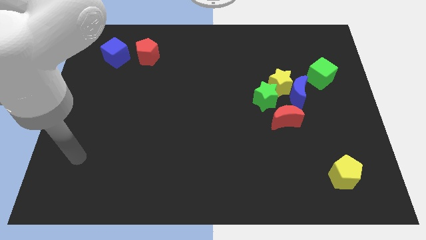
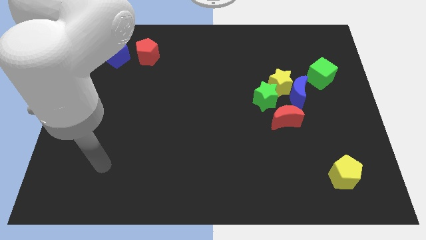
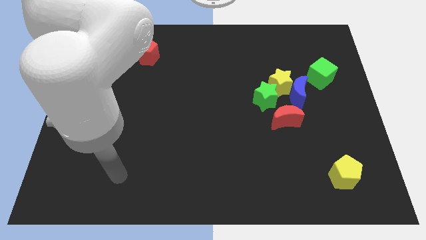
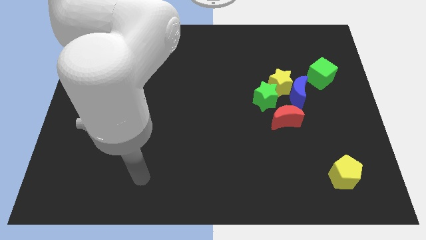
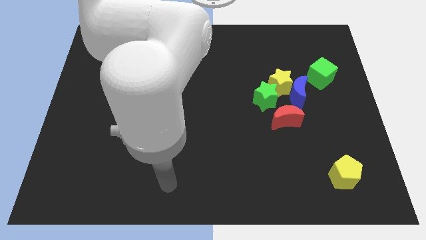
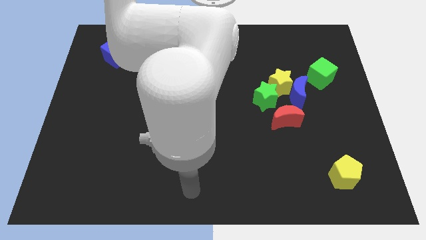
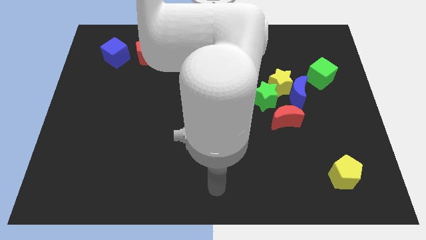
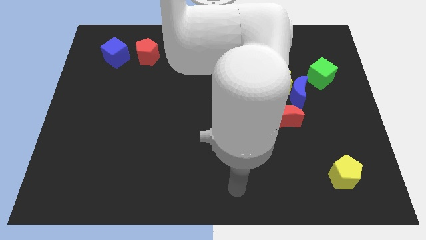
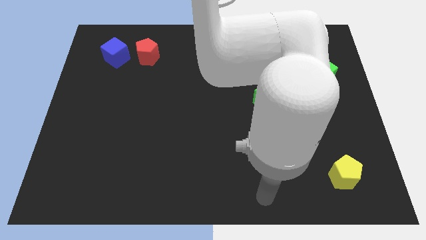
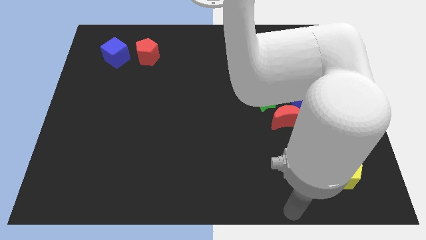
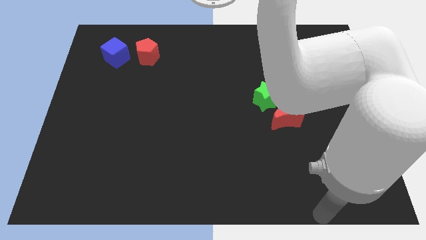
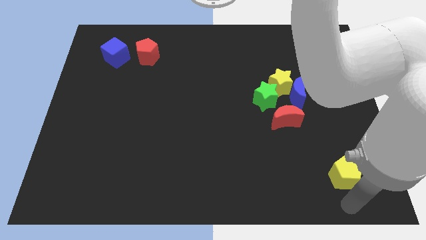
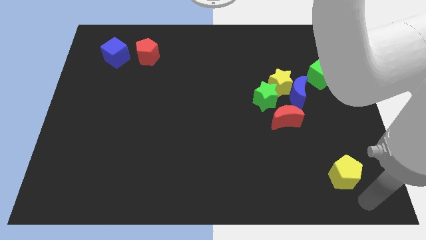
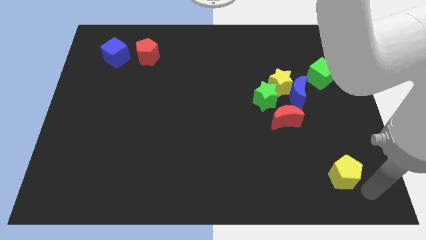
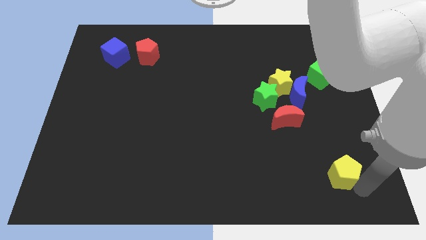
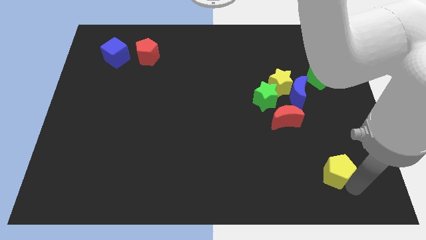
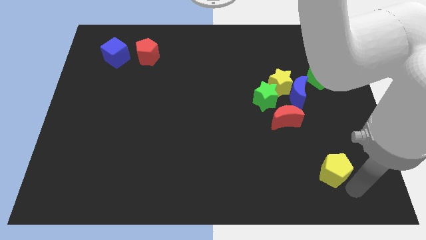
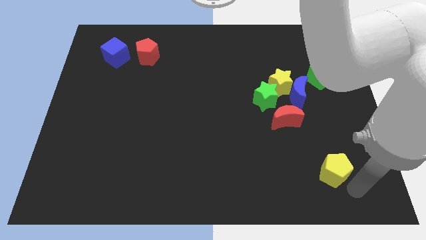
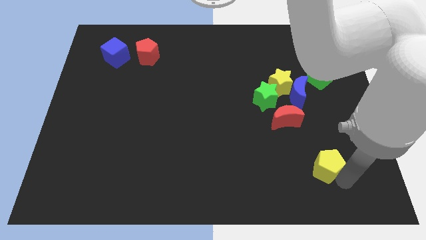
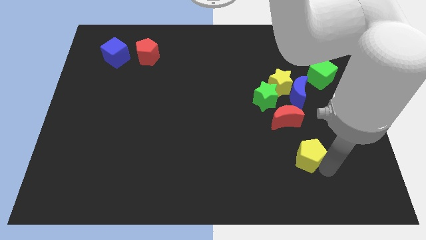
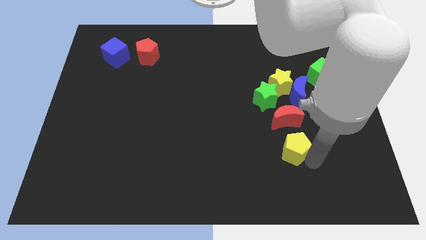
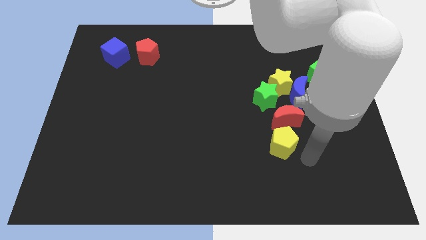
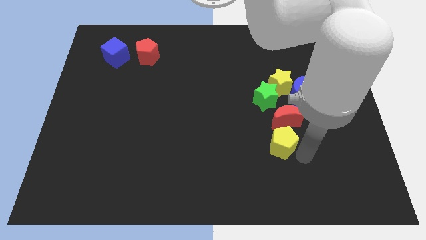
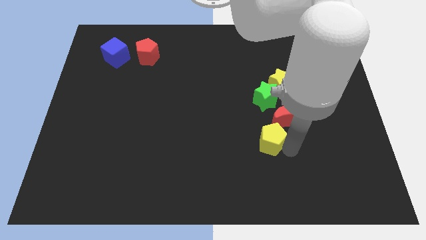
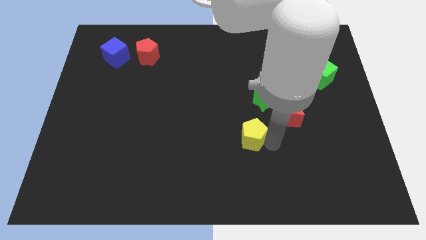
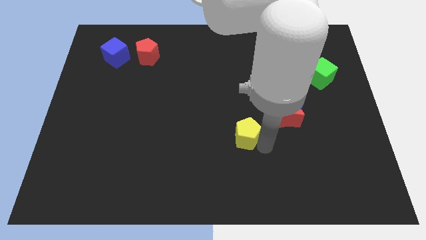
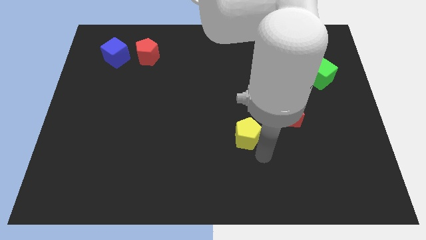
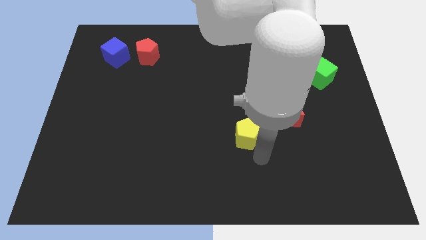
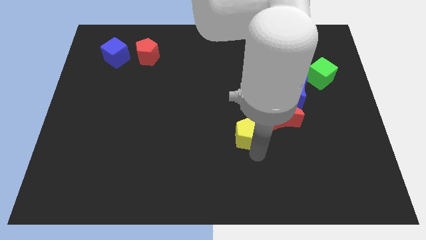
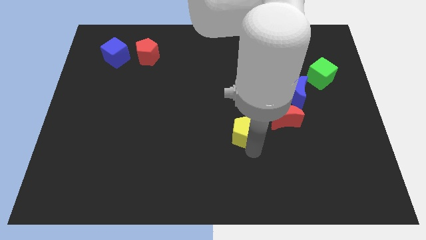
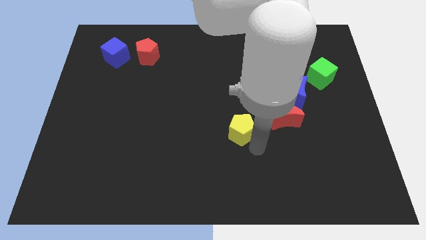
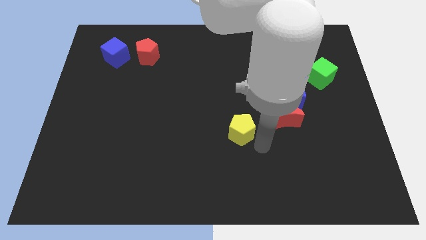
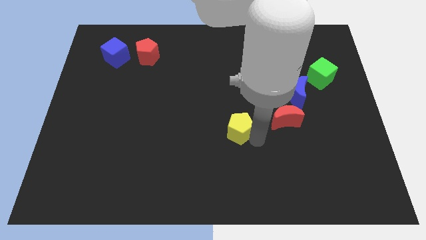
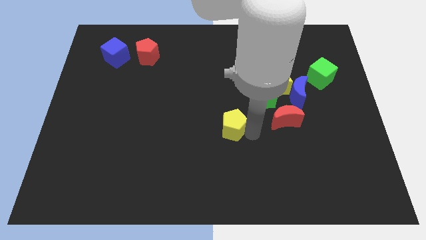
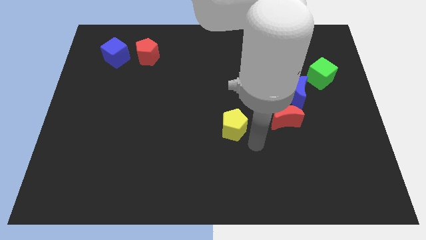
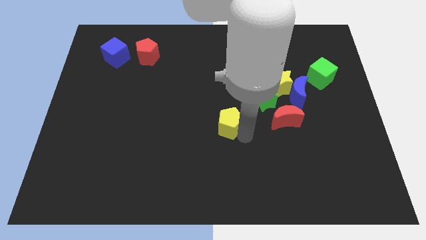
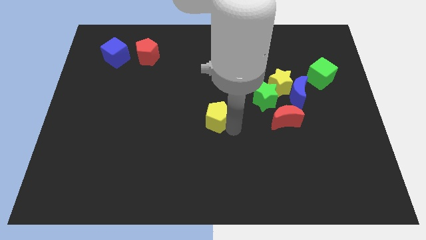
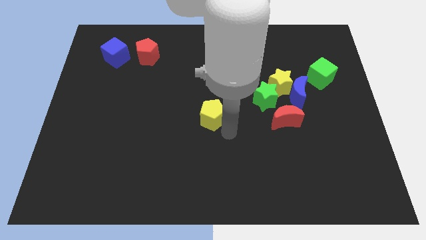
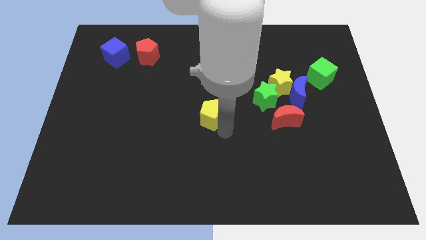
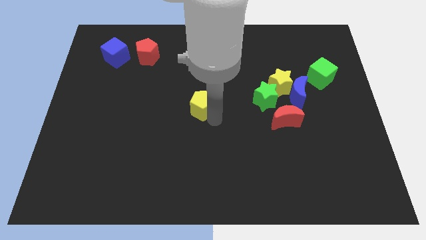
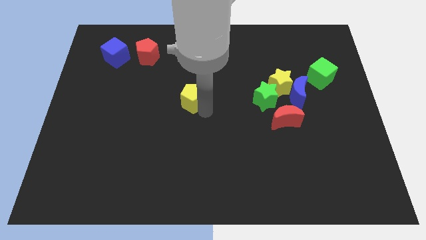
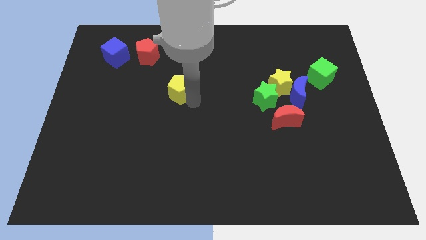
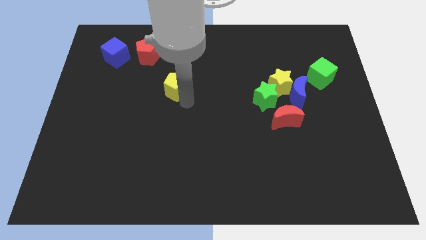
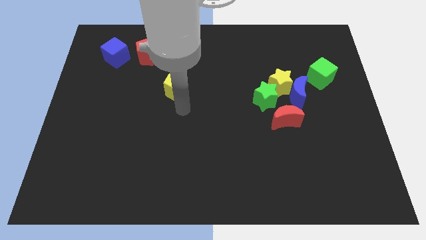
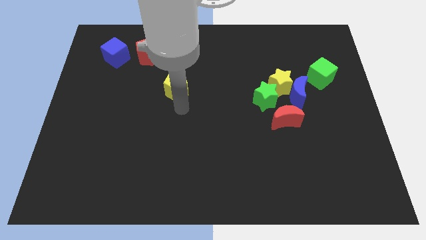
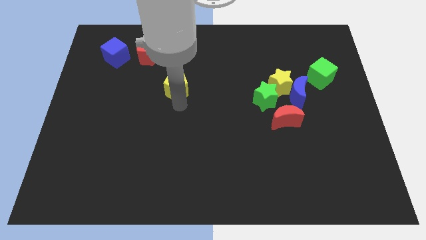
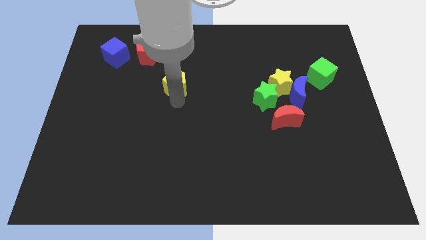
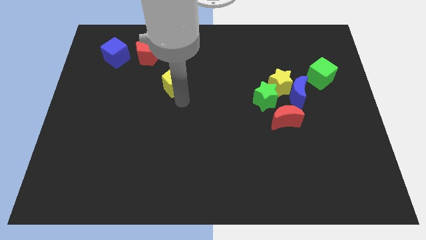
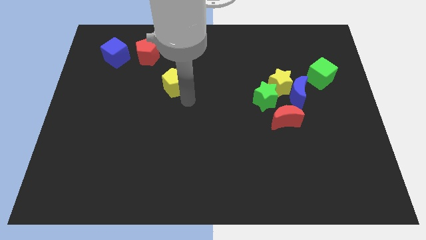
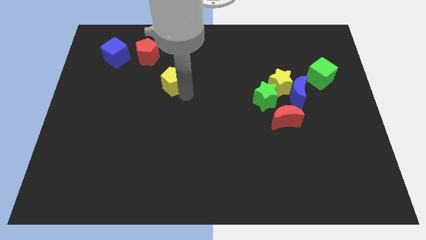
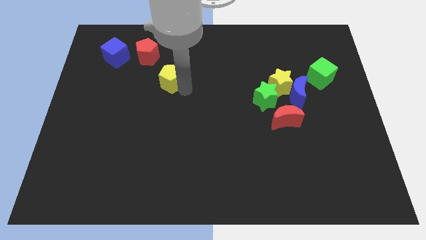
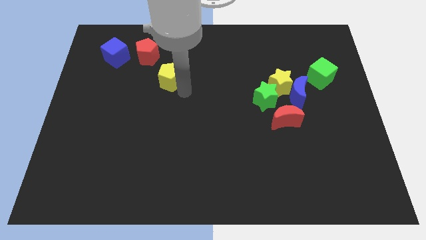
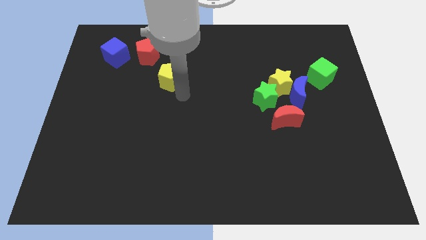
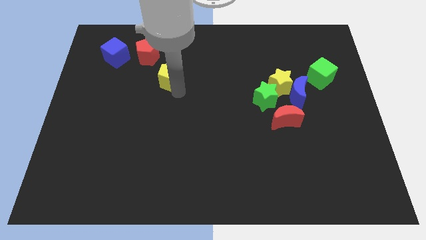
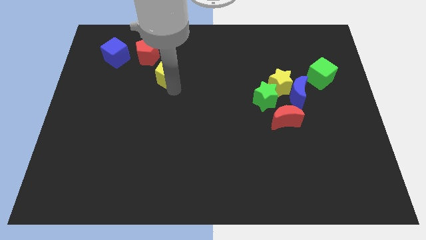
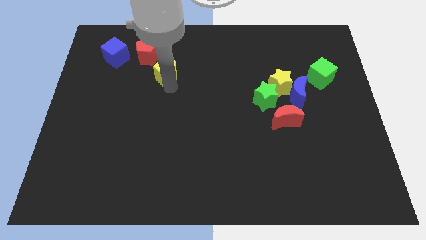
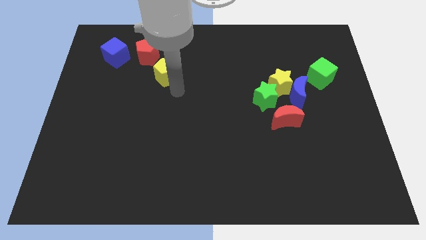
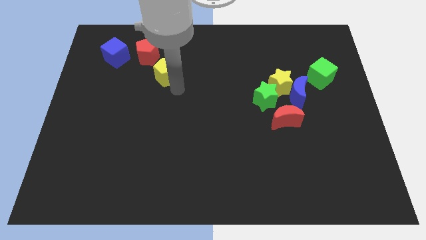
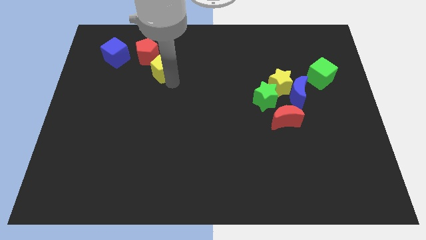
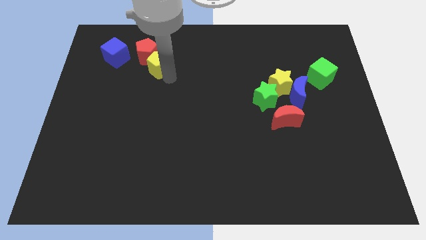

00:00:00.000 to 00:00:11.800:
put the yellow pentagon to the red pentagon

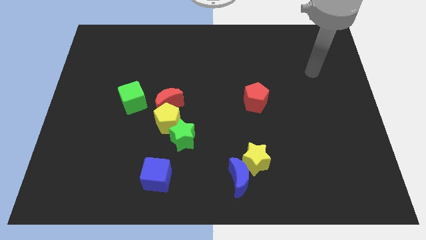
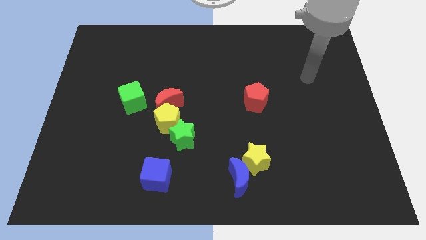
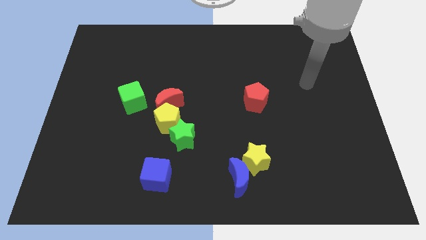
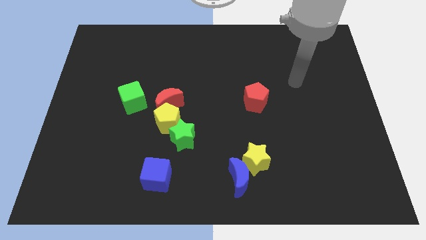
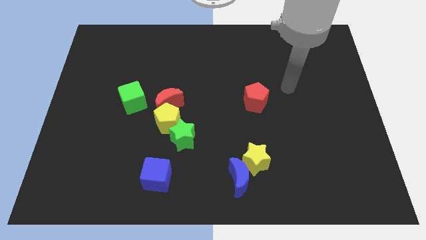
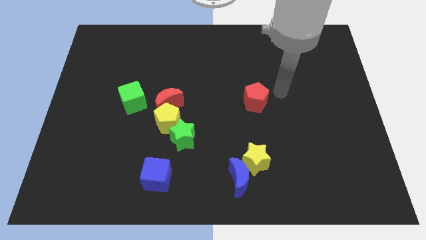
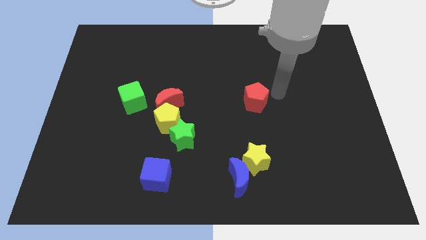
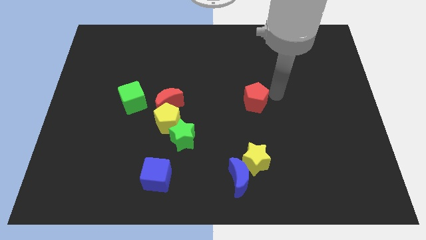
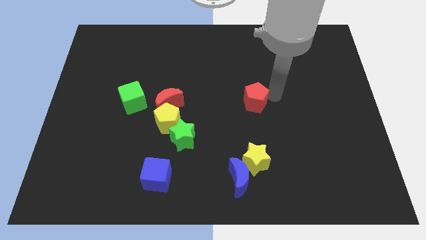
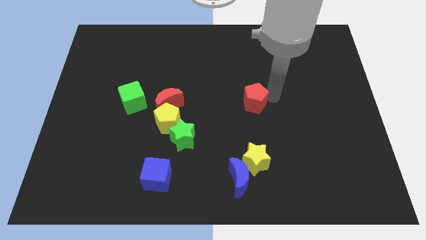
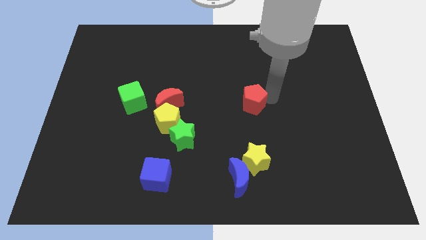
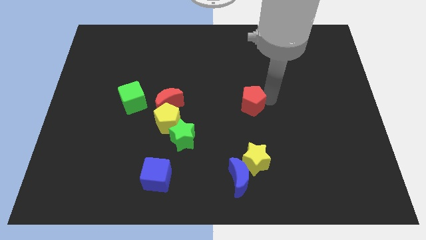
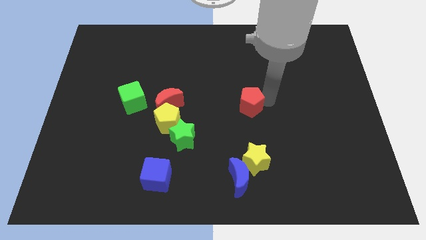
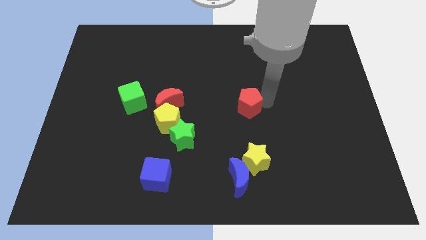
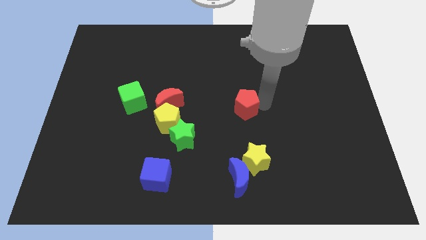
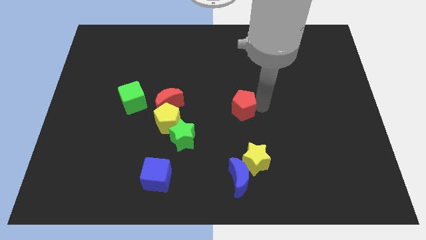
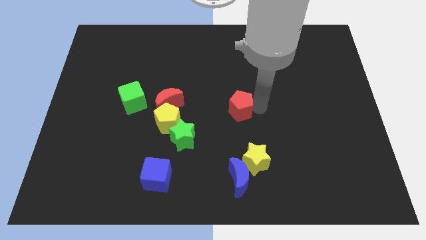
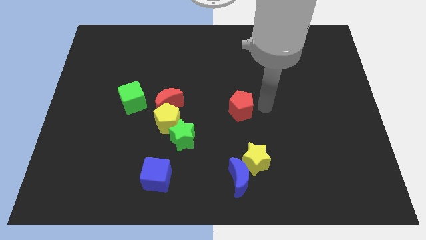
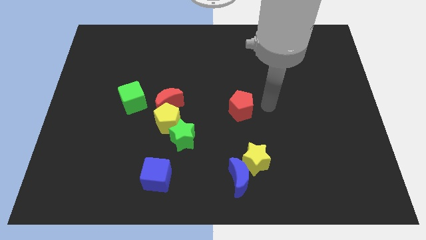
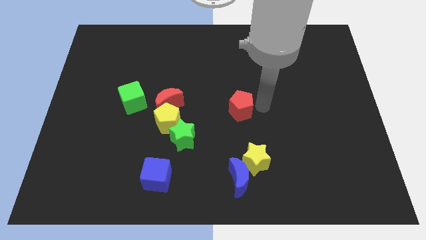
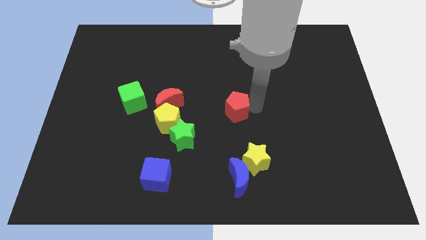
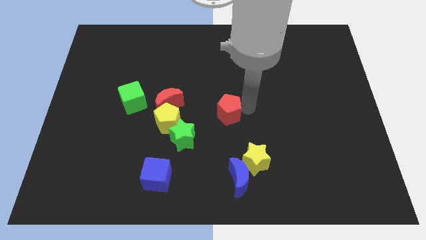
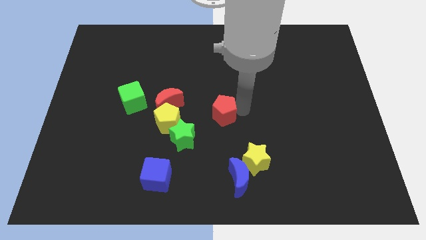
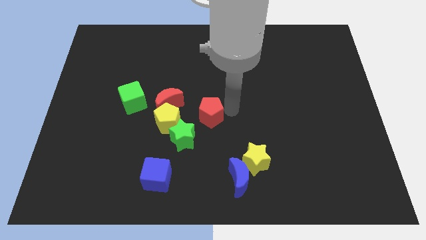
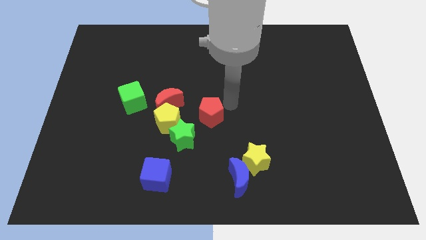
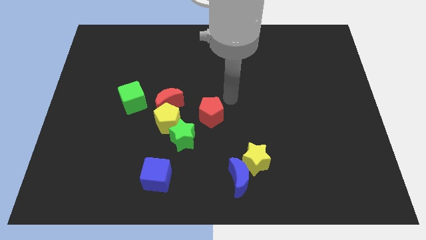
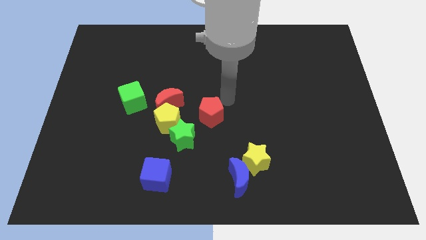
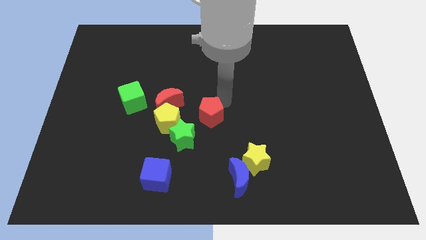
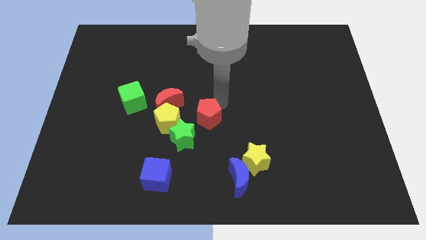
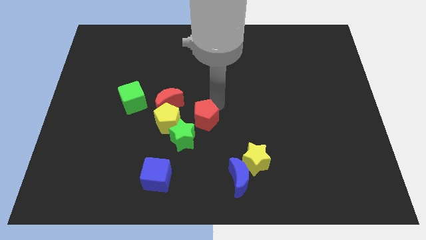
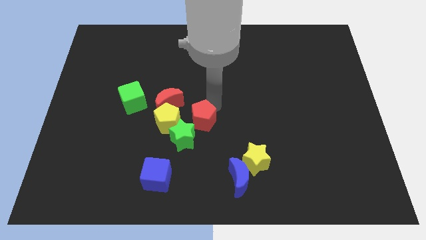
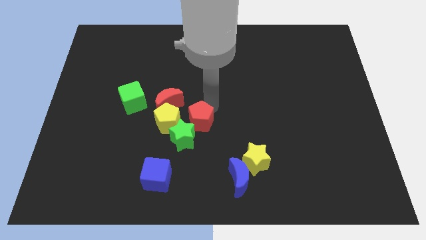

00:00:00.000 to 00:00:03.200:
put the red pentagon towards the green star
